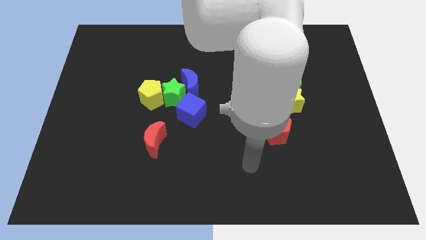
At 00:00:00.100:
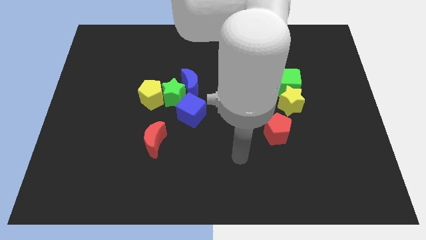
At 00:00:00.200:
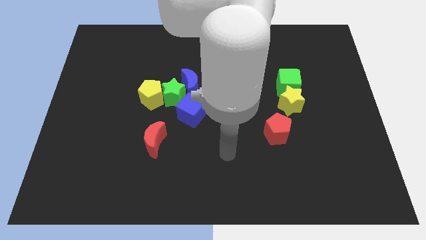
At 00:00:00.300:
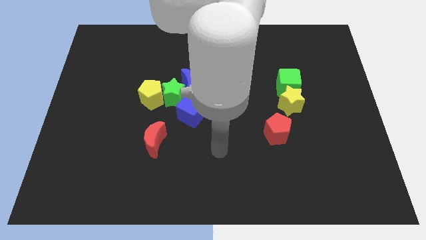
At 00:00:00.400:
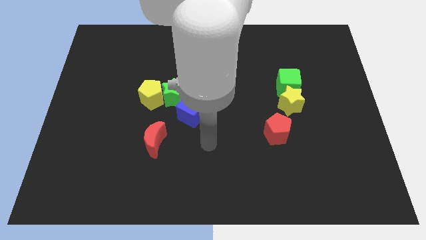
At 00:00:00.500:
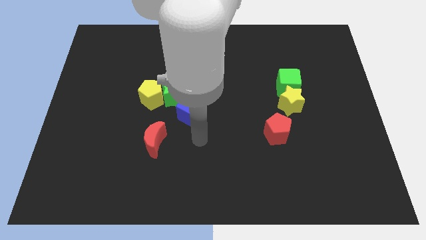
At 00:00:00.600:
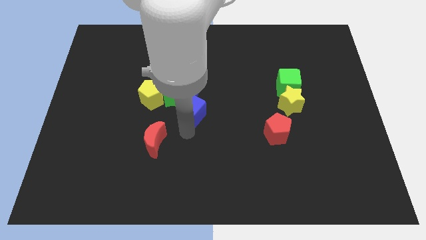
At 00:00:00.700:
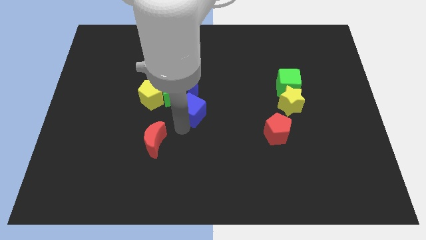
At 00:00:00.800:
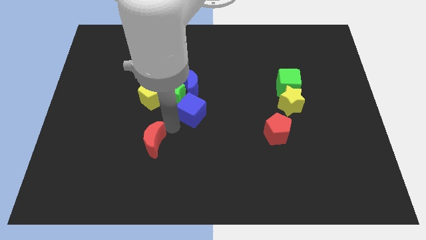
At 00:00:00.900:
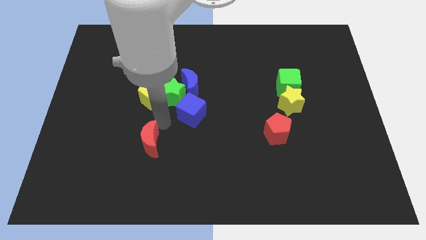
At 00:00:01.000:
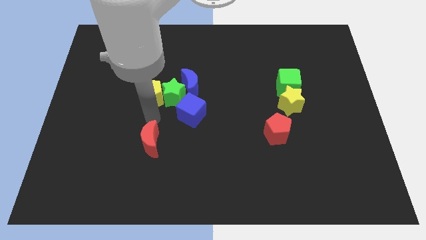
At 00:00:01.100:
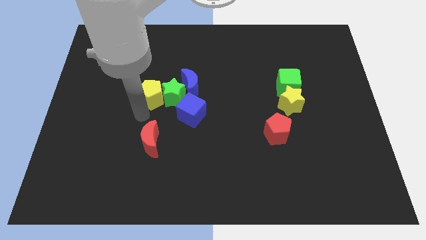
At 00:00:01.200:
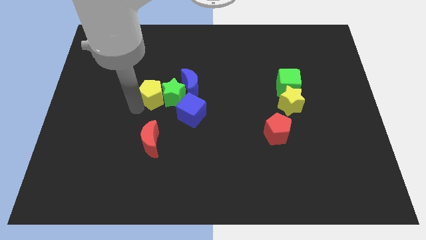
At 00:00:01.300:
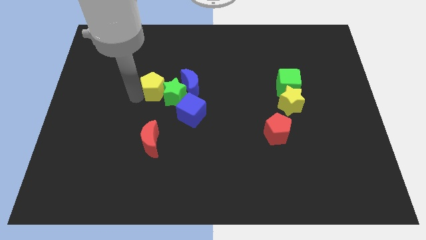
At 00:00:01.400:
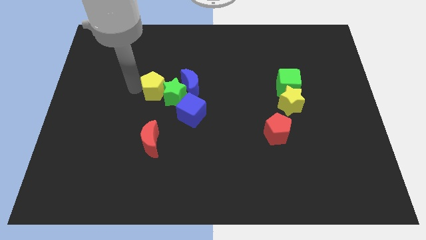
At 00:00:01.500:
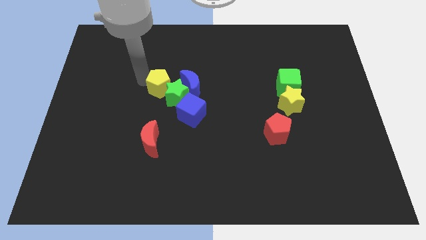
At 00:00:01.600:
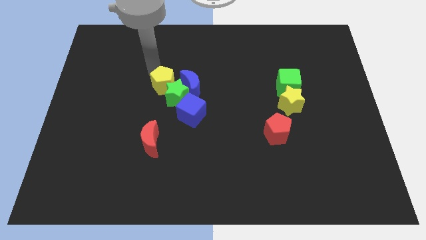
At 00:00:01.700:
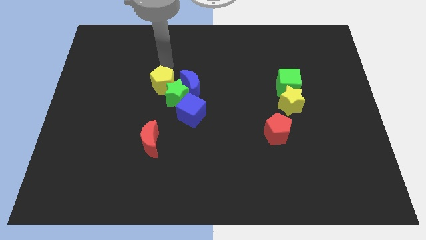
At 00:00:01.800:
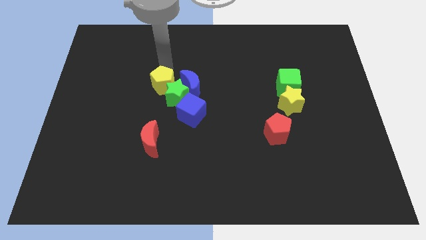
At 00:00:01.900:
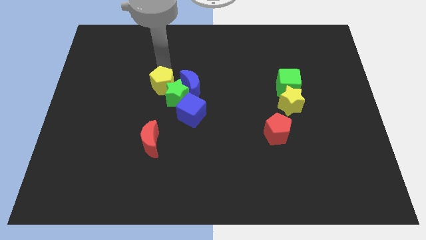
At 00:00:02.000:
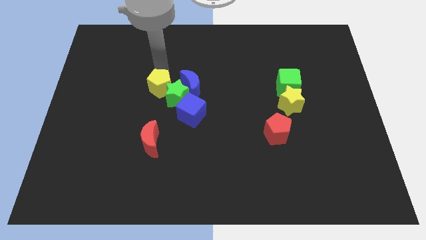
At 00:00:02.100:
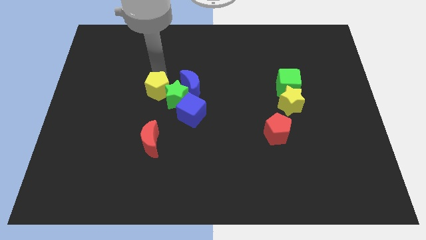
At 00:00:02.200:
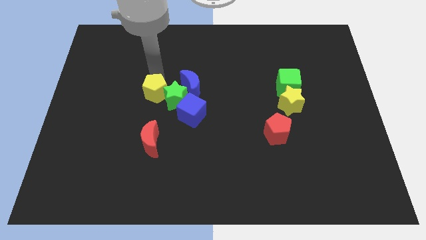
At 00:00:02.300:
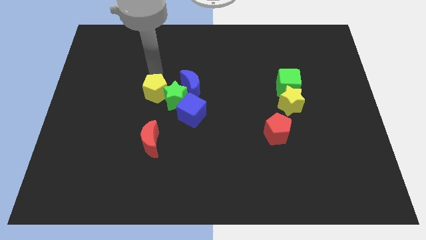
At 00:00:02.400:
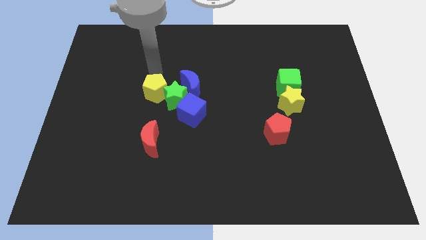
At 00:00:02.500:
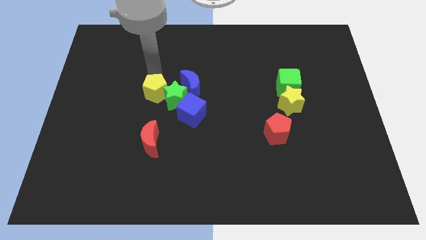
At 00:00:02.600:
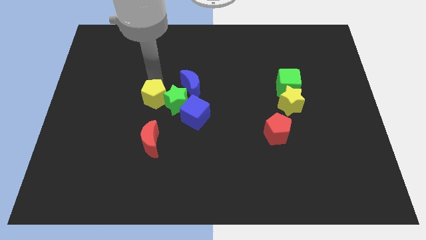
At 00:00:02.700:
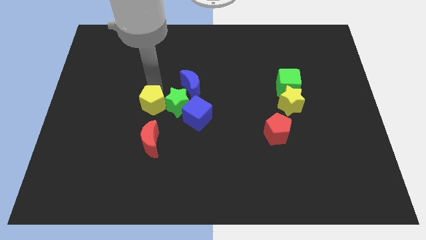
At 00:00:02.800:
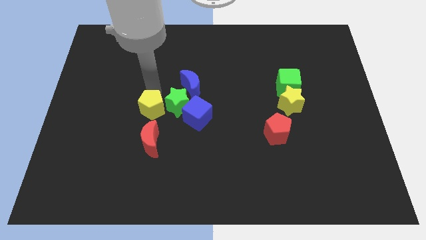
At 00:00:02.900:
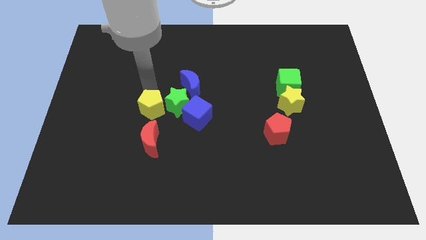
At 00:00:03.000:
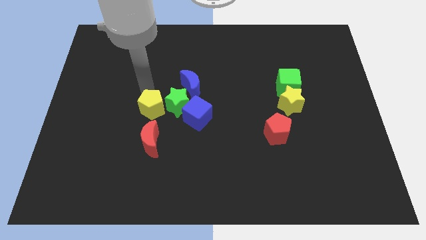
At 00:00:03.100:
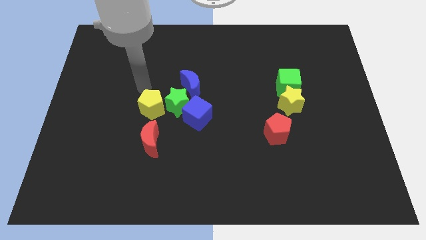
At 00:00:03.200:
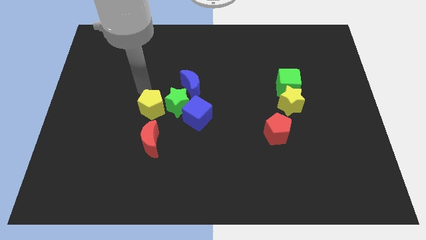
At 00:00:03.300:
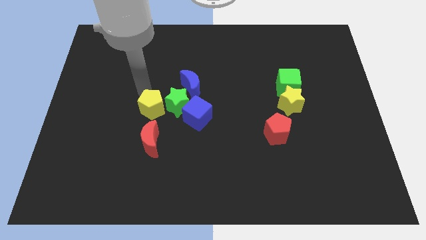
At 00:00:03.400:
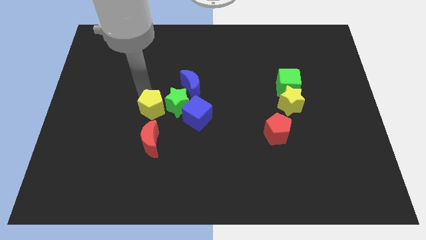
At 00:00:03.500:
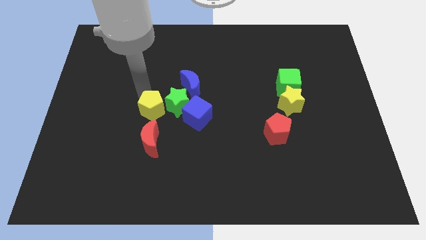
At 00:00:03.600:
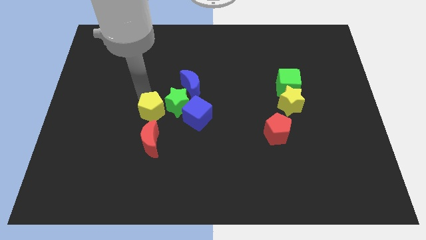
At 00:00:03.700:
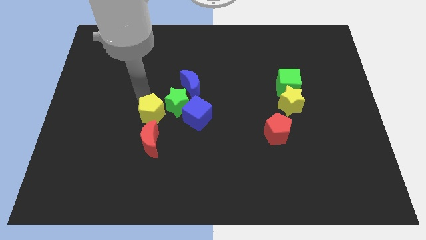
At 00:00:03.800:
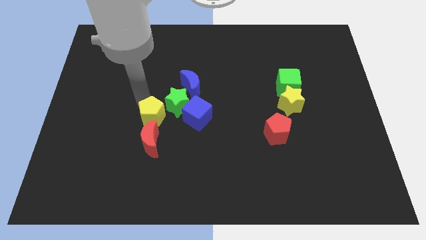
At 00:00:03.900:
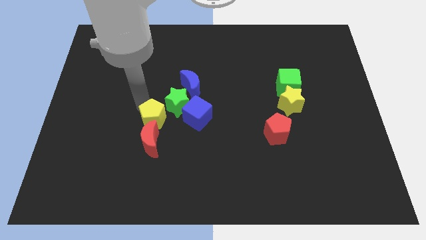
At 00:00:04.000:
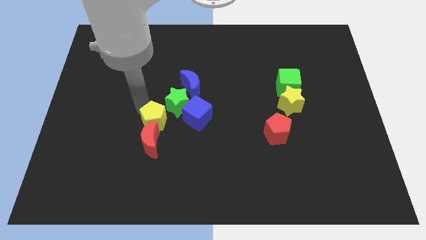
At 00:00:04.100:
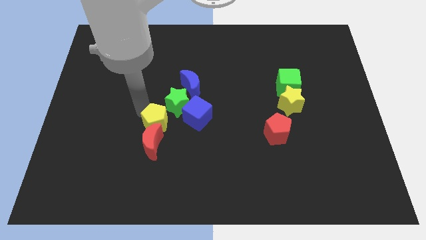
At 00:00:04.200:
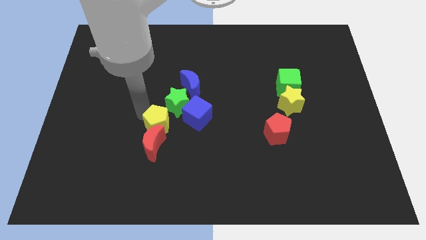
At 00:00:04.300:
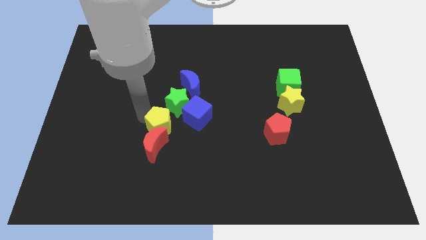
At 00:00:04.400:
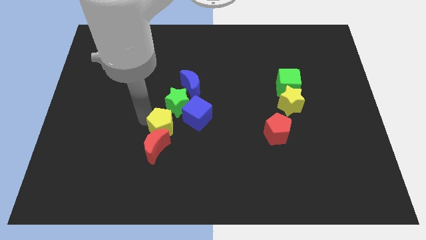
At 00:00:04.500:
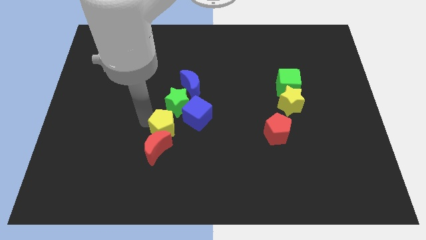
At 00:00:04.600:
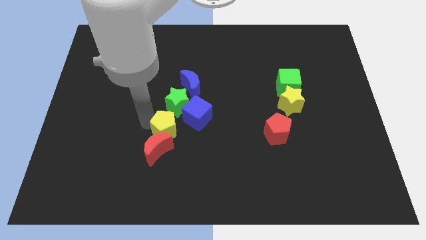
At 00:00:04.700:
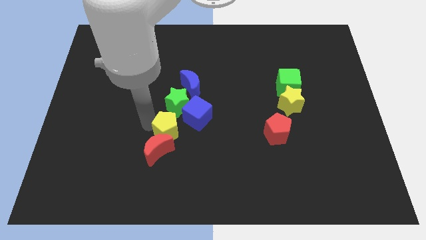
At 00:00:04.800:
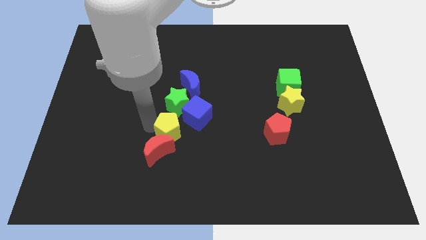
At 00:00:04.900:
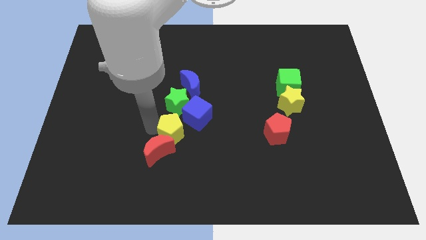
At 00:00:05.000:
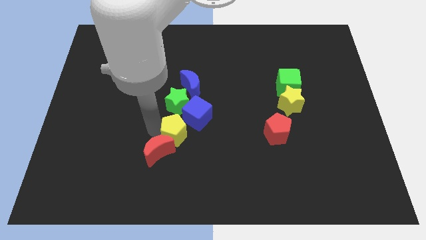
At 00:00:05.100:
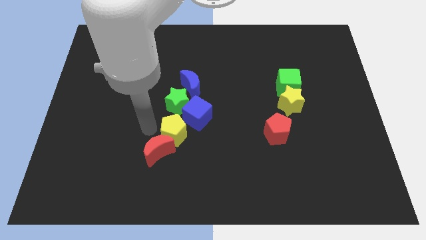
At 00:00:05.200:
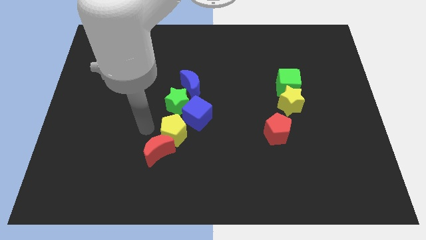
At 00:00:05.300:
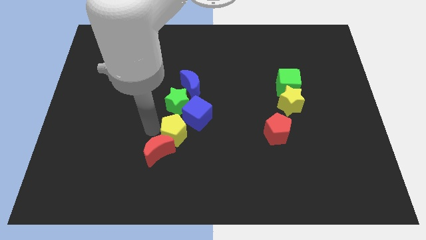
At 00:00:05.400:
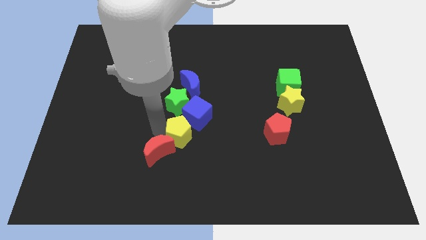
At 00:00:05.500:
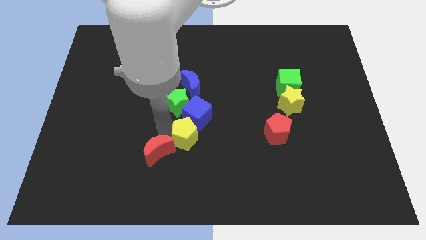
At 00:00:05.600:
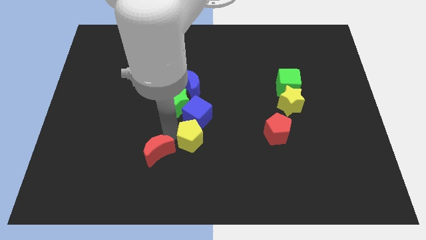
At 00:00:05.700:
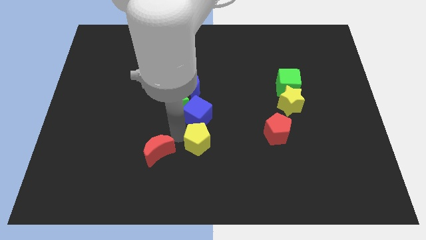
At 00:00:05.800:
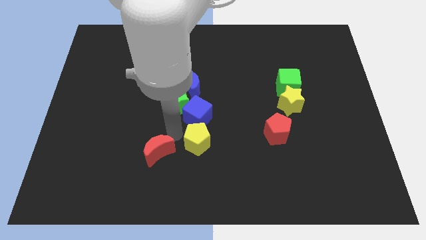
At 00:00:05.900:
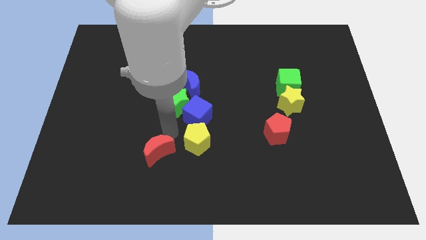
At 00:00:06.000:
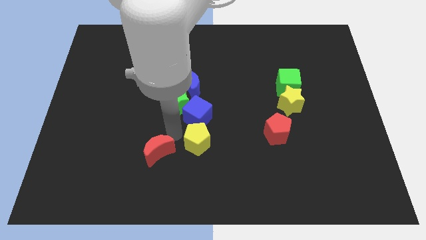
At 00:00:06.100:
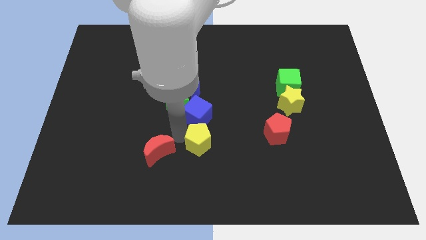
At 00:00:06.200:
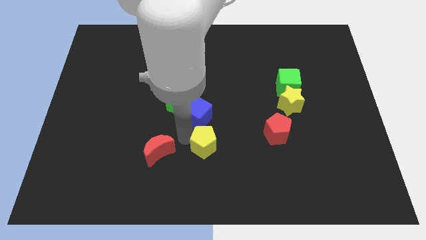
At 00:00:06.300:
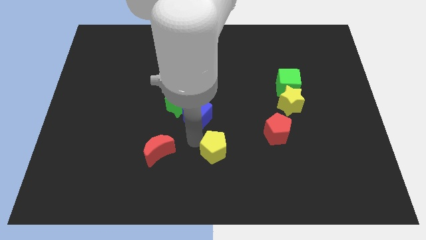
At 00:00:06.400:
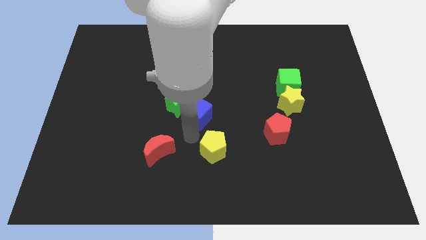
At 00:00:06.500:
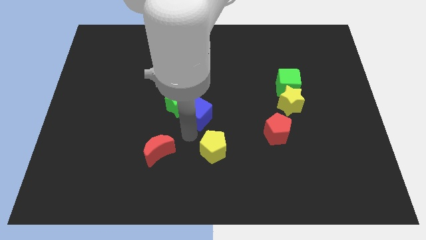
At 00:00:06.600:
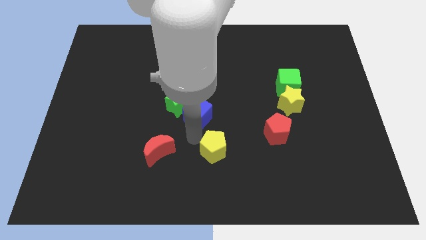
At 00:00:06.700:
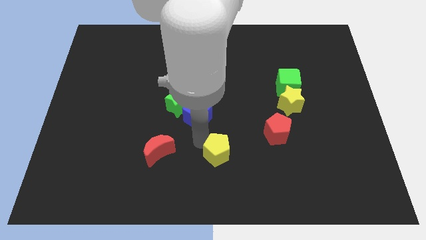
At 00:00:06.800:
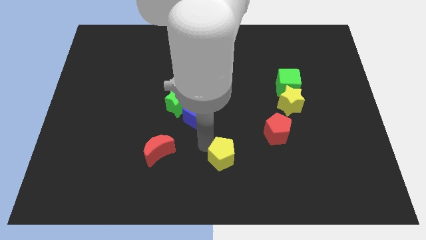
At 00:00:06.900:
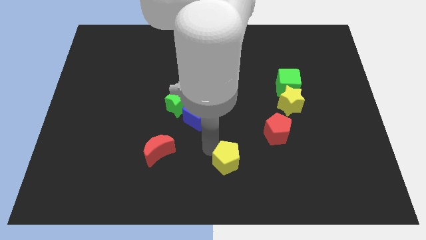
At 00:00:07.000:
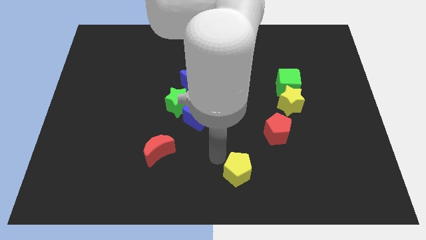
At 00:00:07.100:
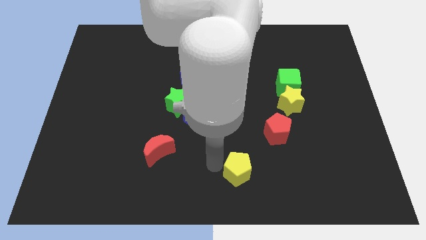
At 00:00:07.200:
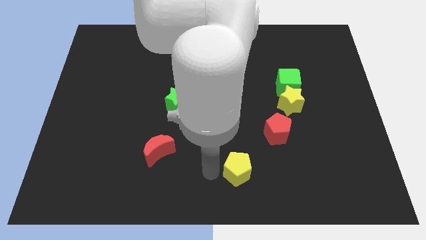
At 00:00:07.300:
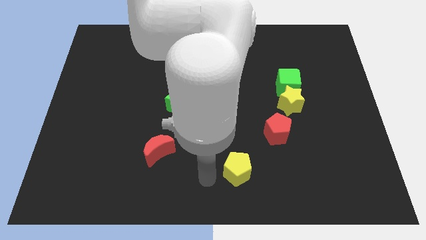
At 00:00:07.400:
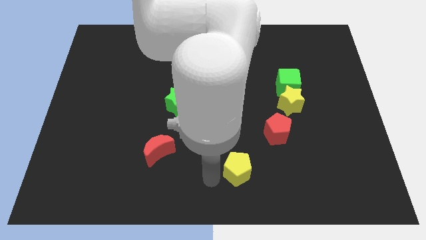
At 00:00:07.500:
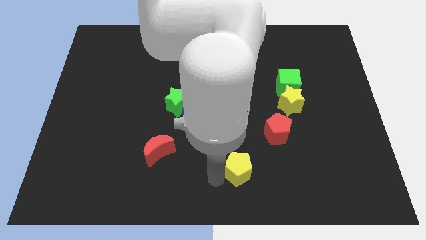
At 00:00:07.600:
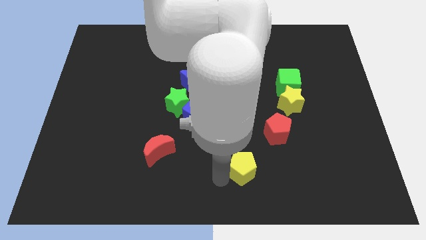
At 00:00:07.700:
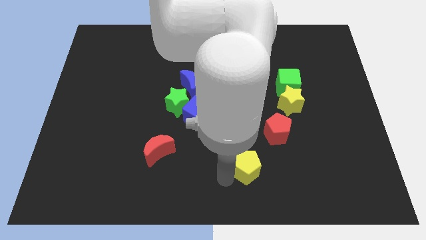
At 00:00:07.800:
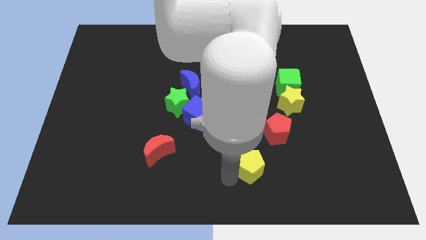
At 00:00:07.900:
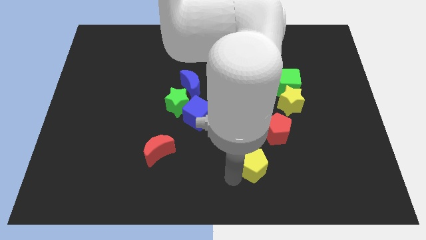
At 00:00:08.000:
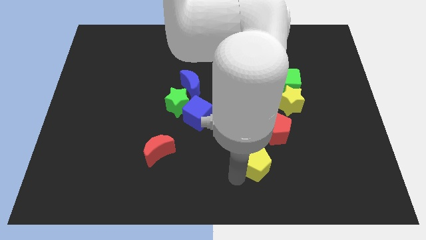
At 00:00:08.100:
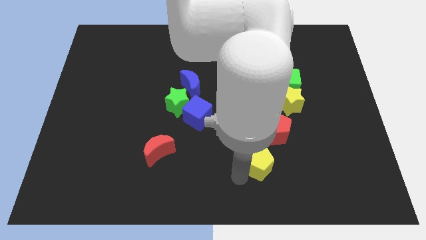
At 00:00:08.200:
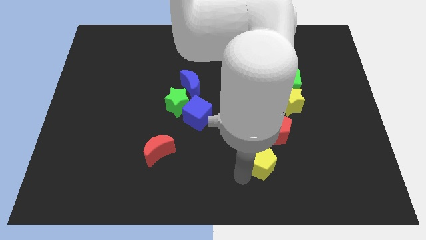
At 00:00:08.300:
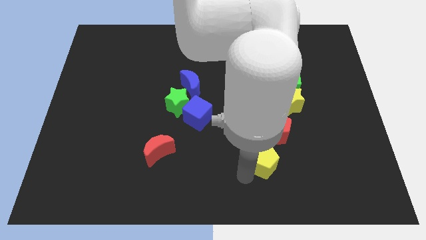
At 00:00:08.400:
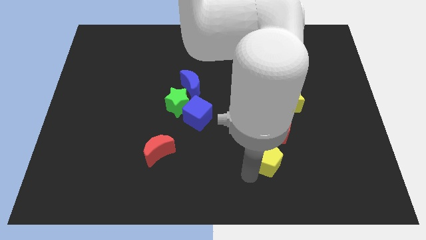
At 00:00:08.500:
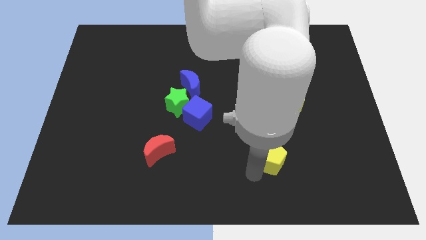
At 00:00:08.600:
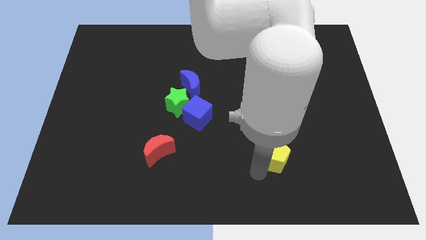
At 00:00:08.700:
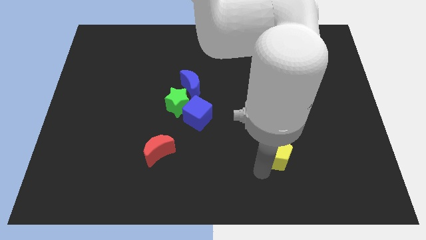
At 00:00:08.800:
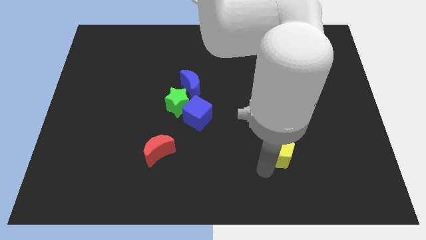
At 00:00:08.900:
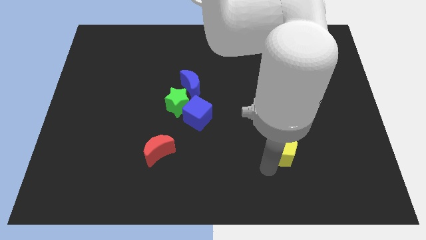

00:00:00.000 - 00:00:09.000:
put the yellow pentagon below the yellow star
